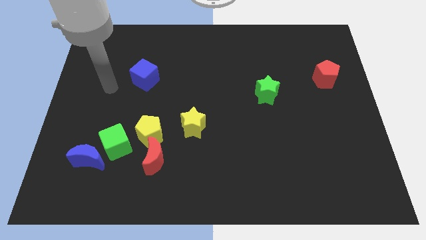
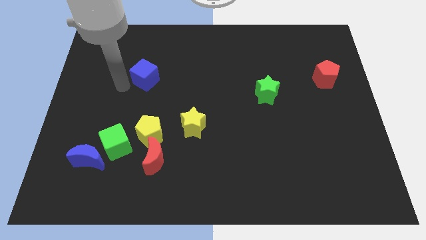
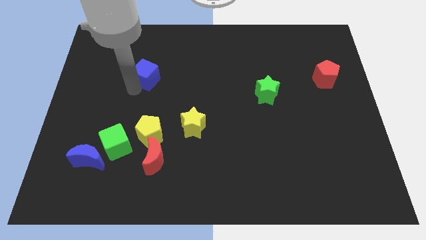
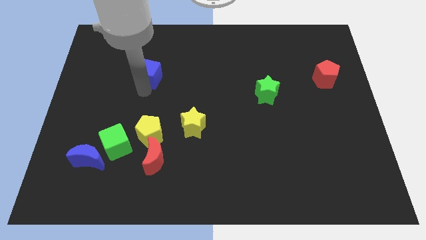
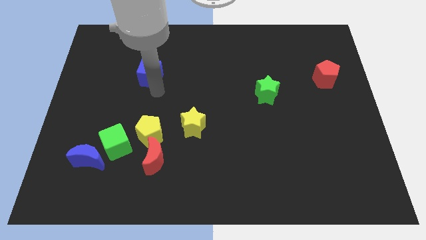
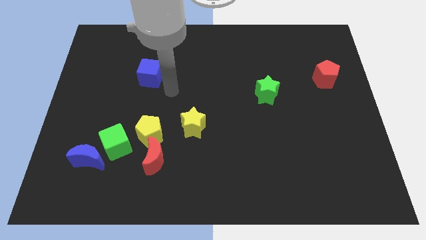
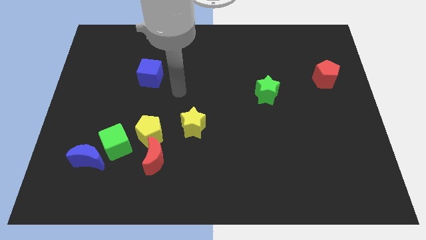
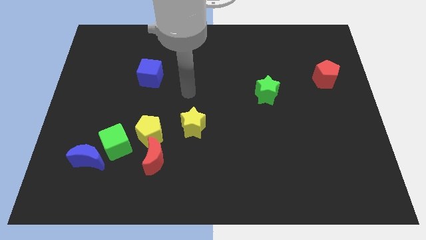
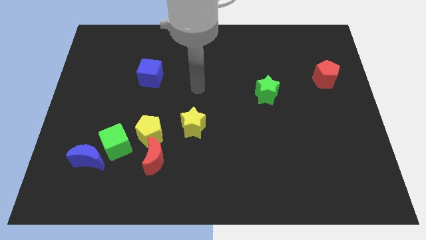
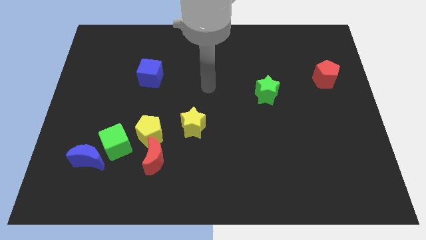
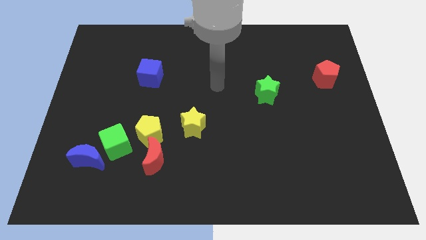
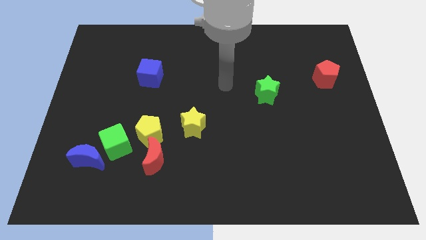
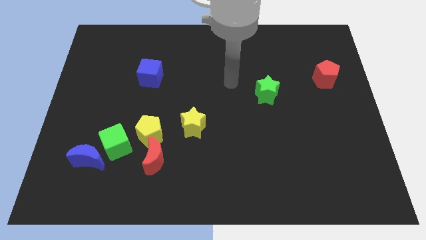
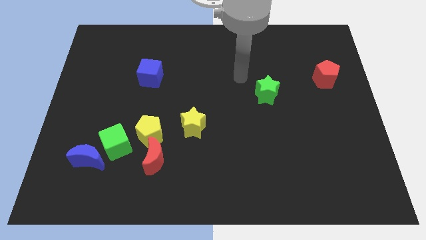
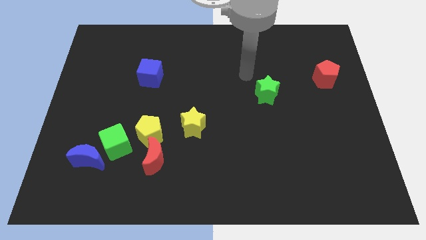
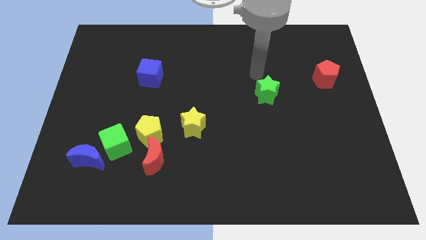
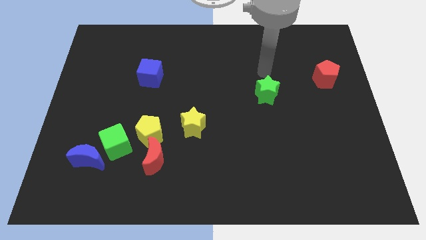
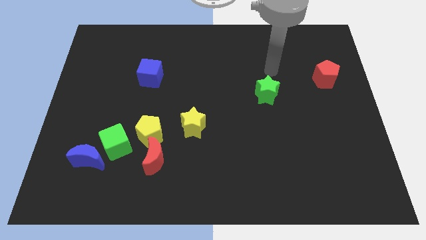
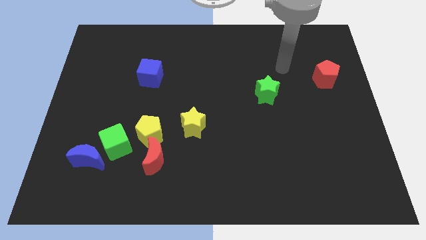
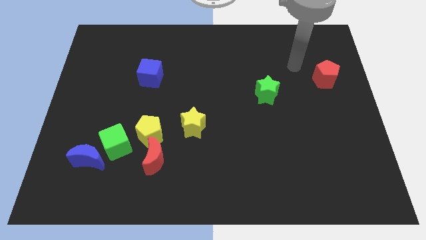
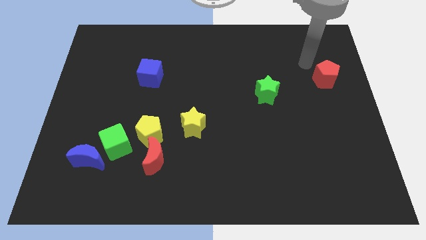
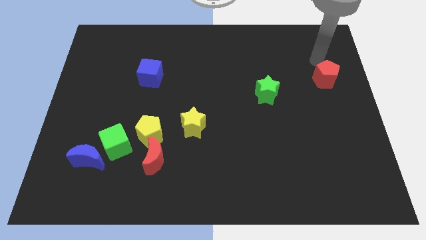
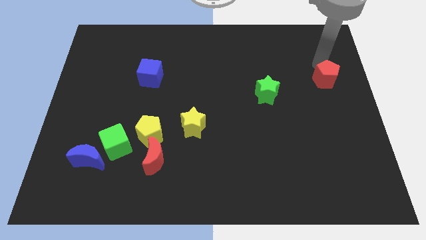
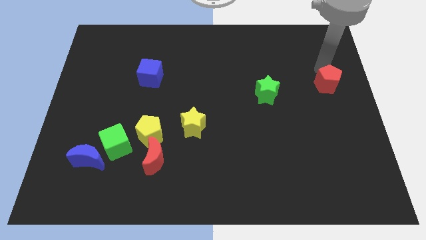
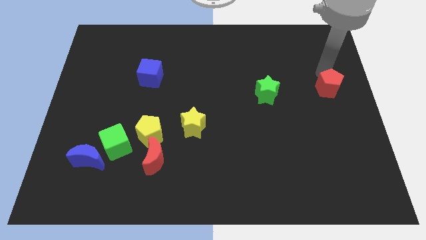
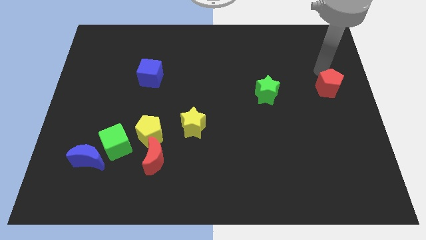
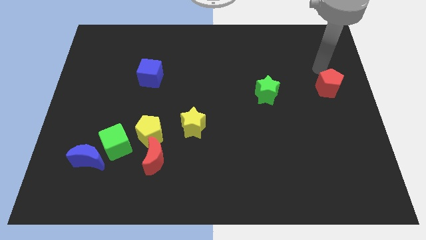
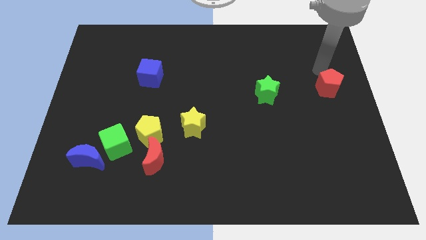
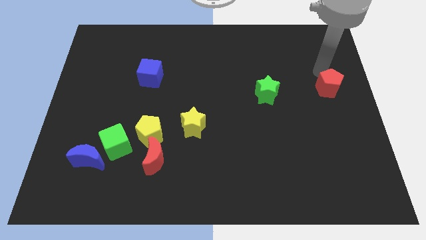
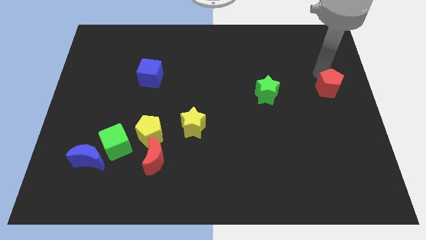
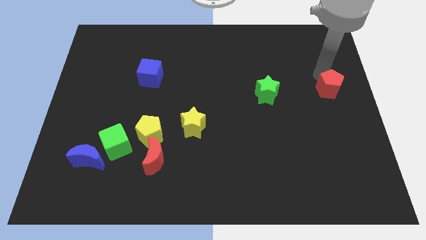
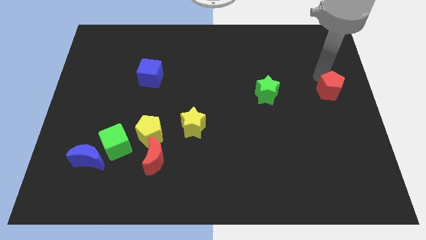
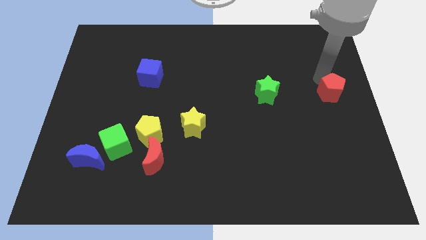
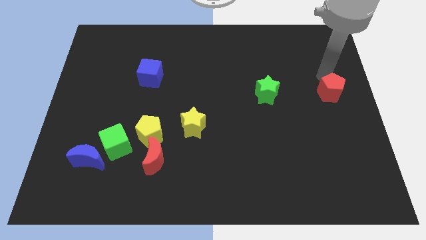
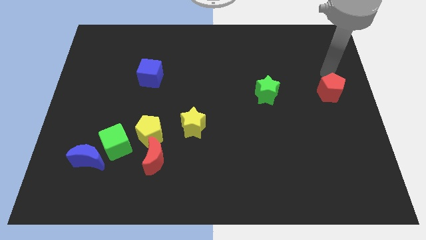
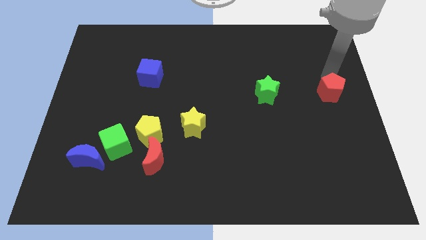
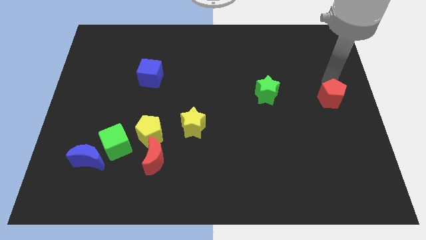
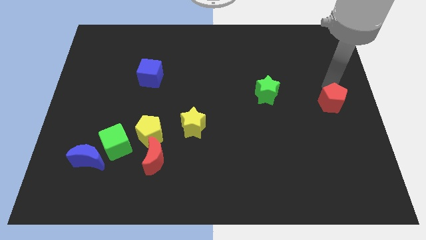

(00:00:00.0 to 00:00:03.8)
push the red pentagon downwards slightly

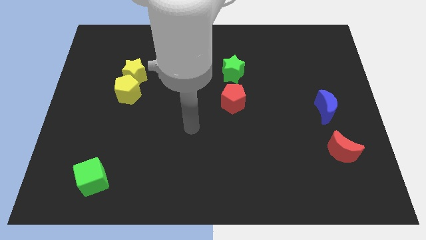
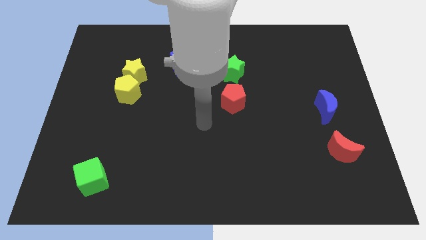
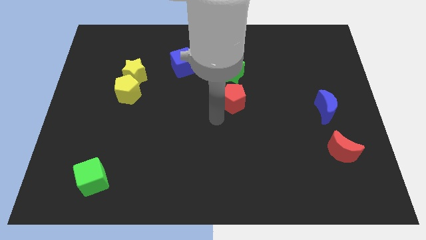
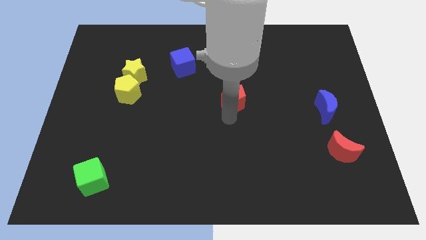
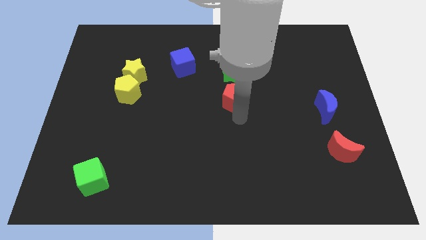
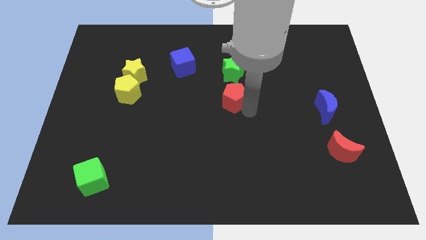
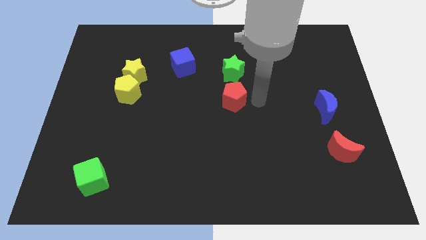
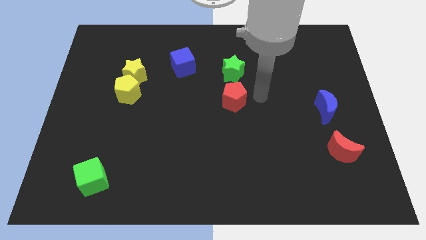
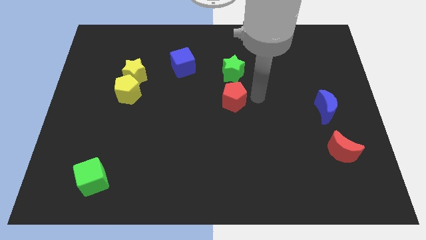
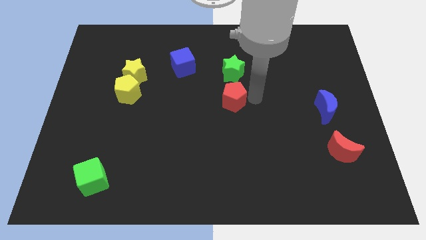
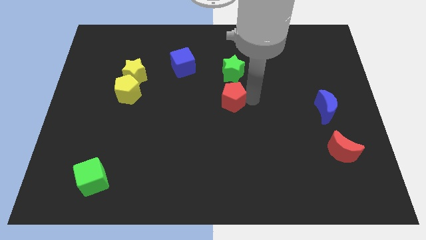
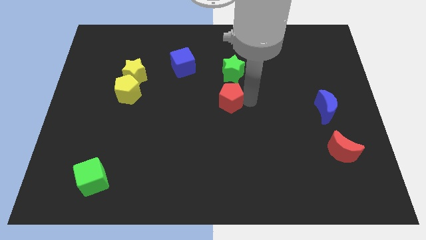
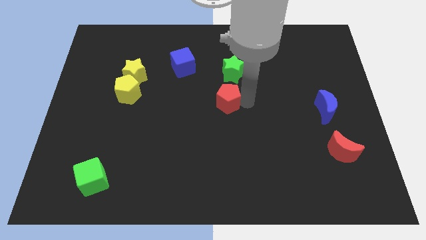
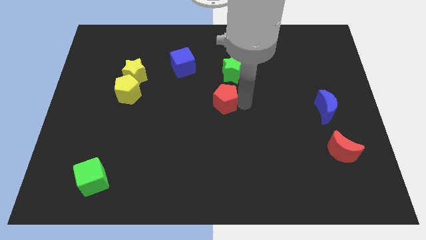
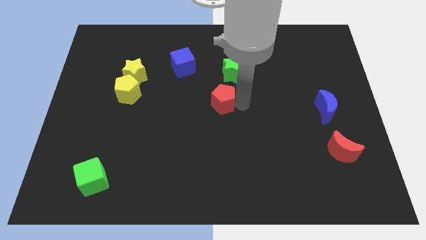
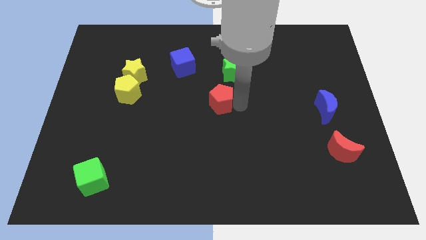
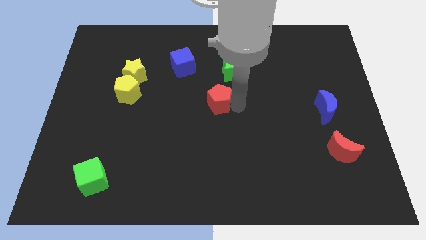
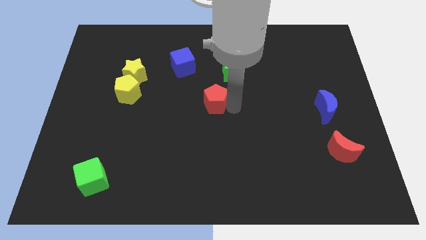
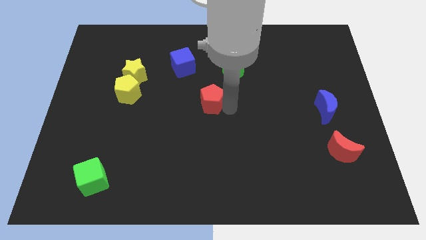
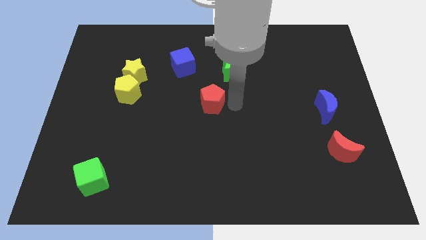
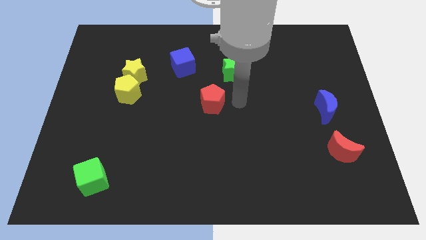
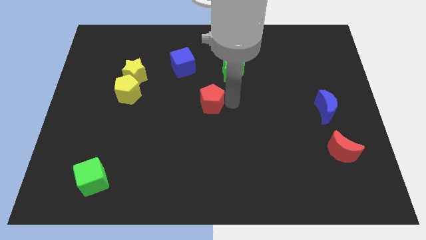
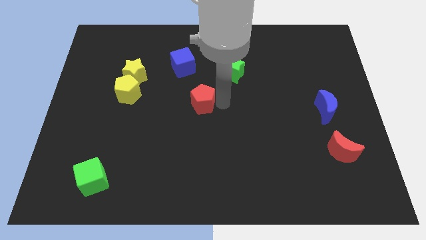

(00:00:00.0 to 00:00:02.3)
slightly slide the red pentagon to the left

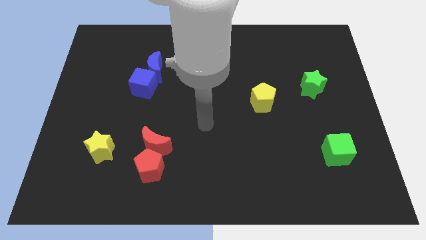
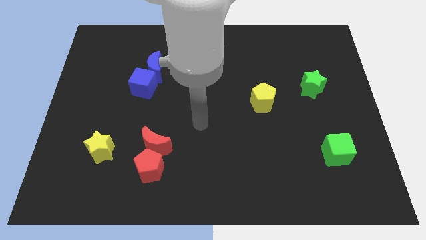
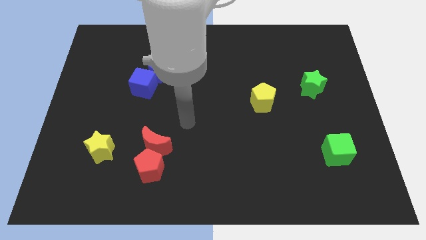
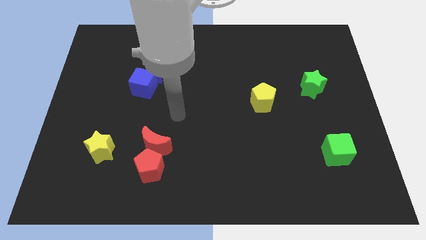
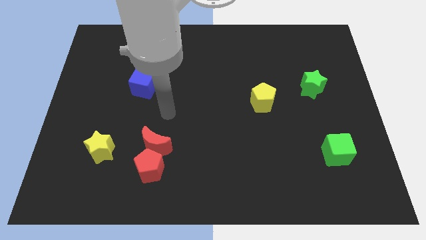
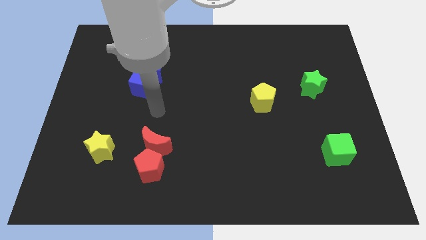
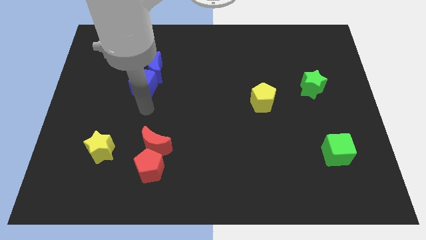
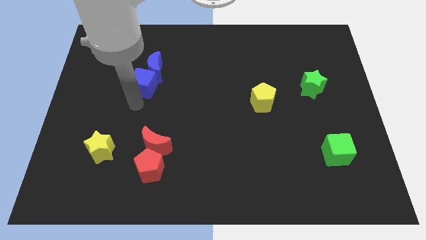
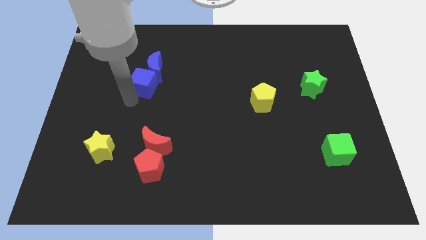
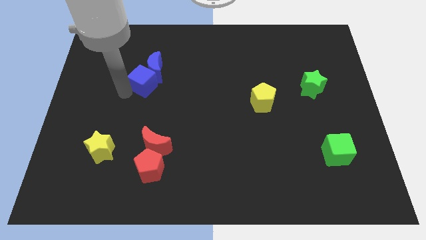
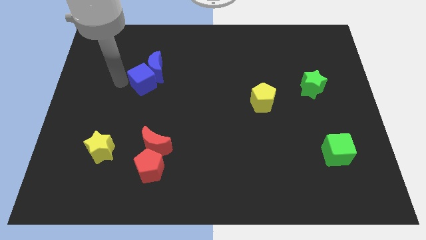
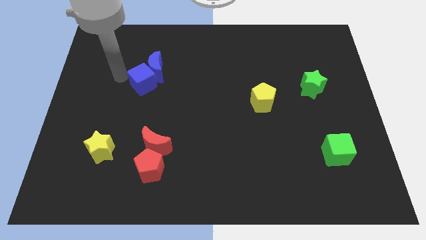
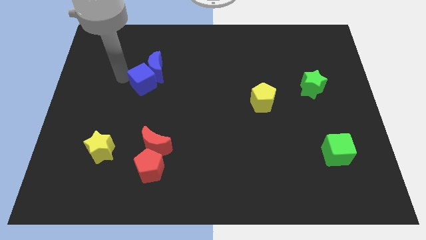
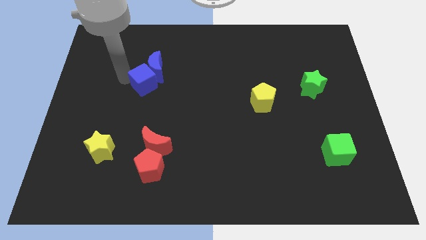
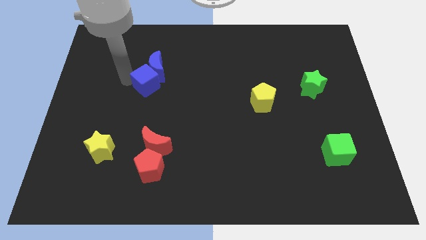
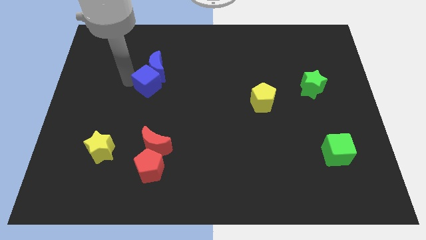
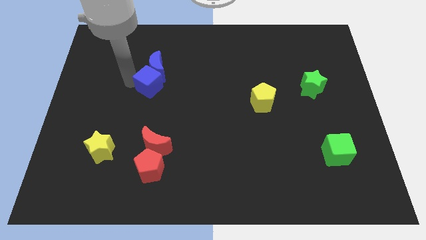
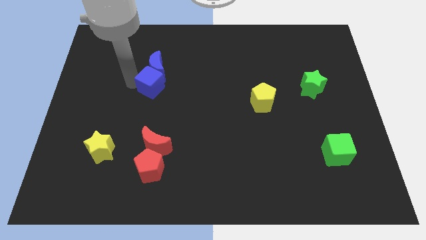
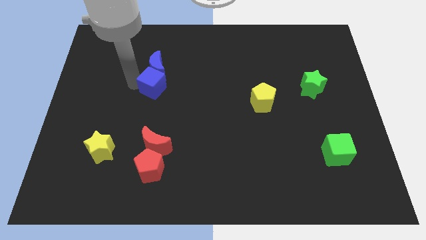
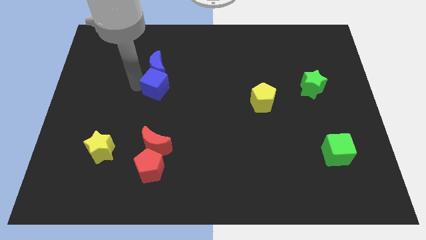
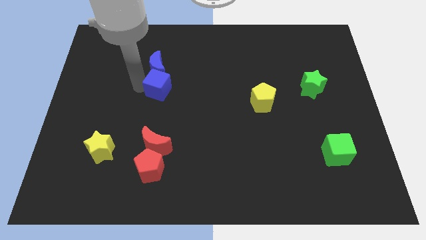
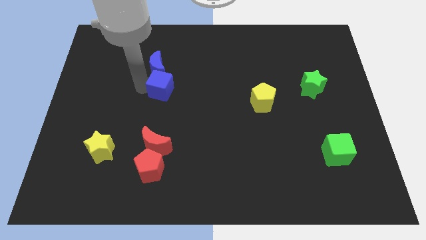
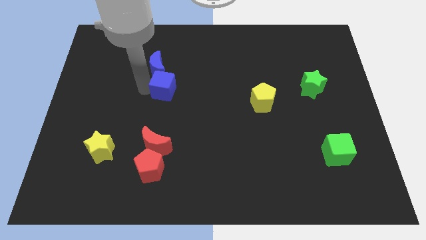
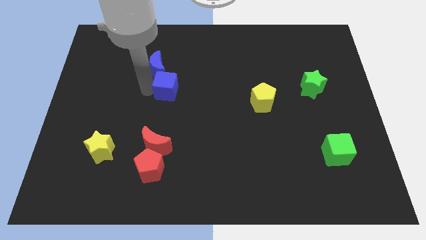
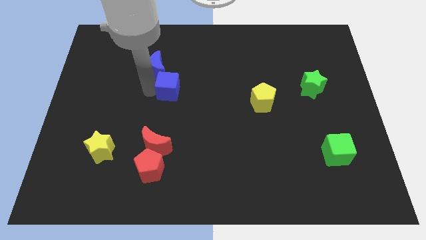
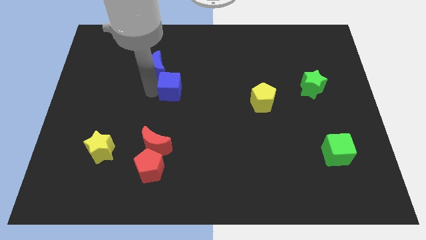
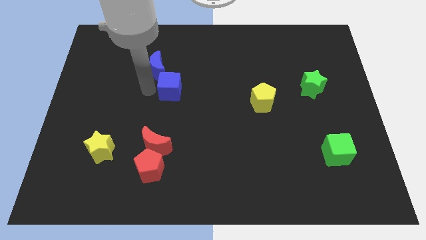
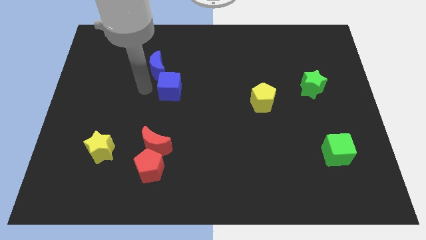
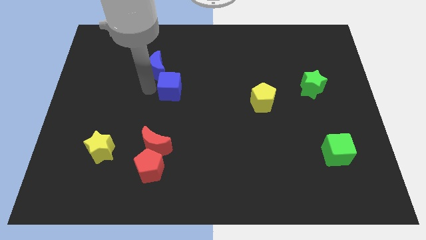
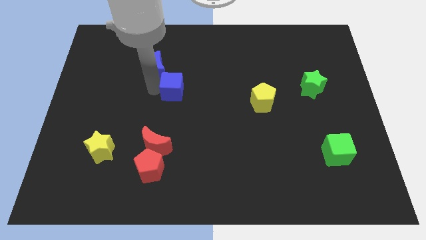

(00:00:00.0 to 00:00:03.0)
slide the blue cube a little to the right
